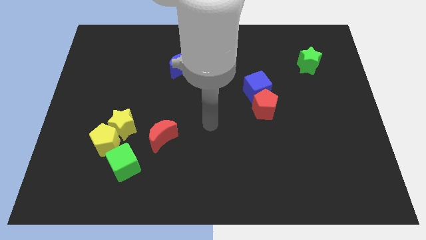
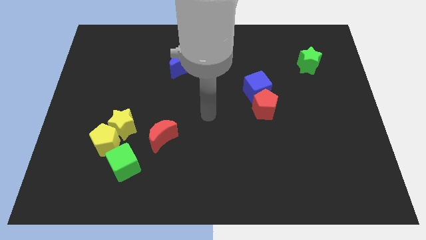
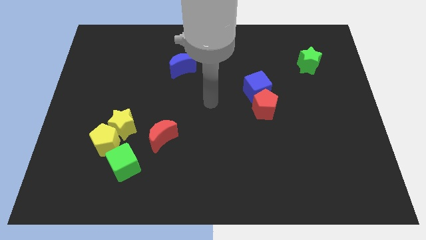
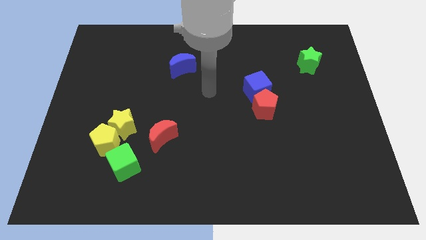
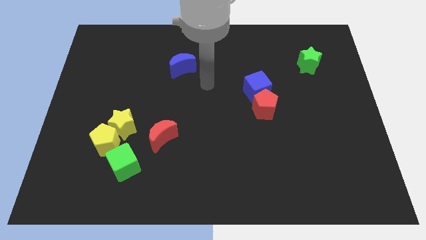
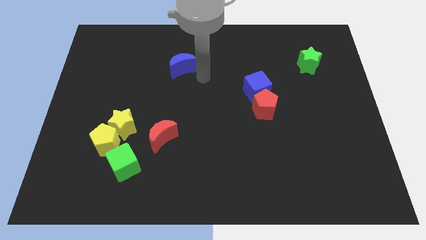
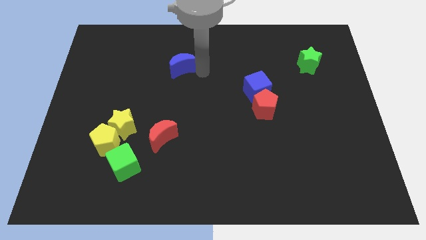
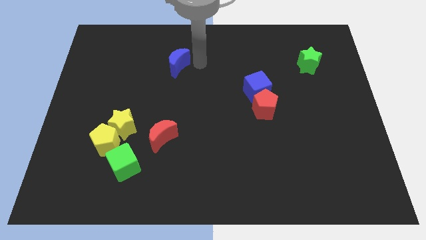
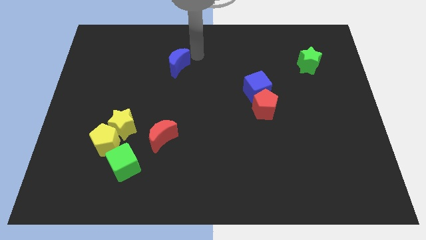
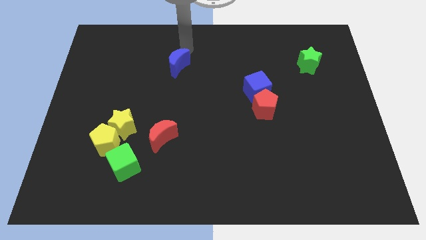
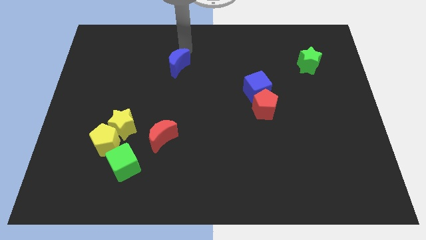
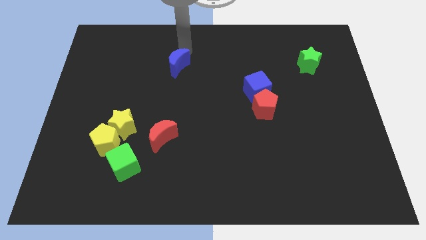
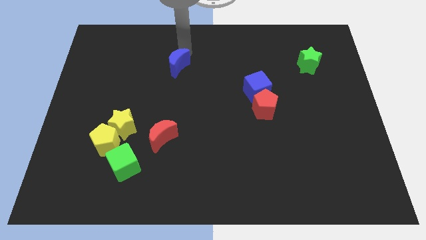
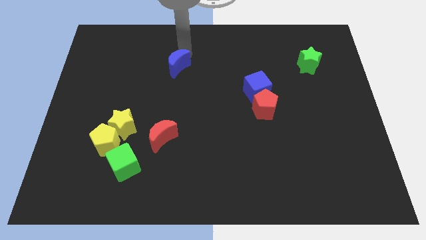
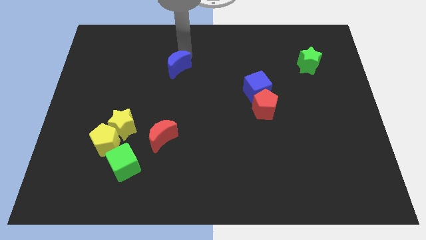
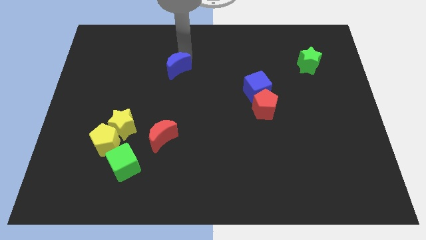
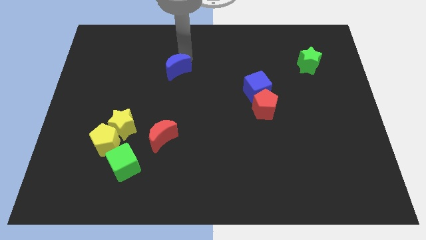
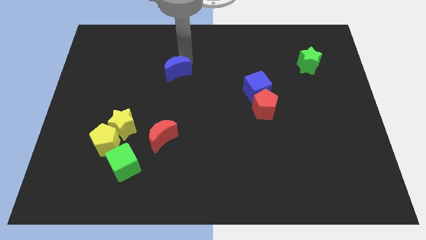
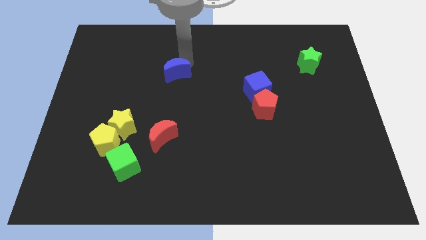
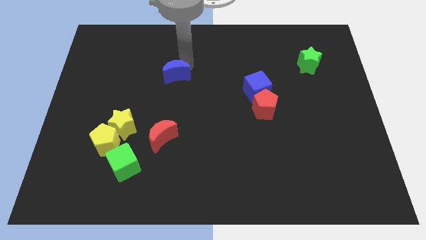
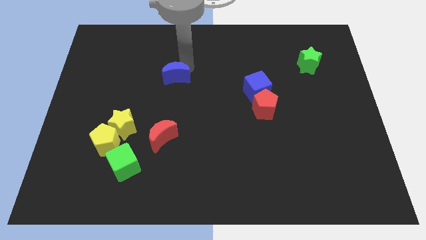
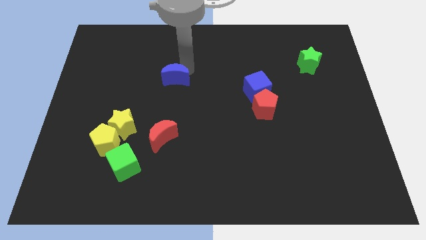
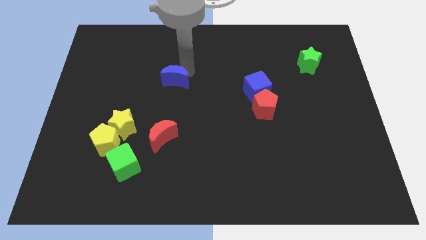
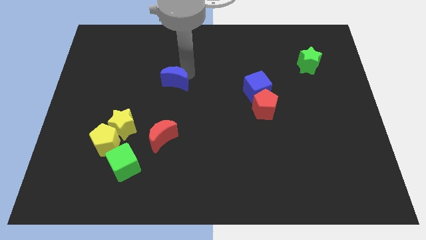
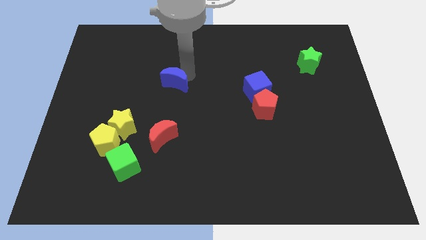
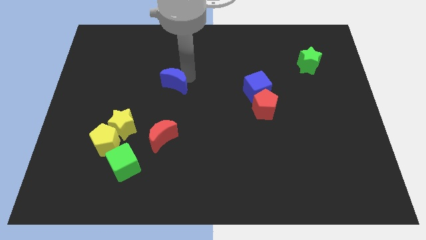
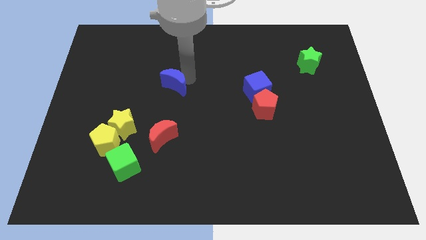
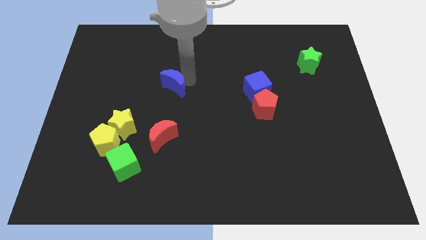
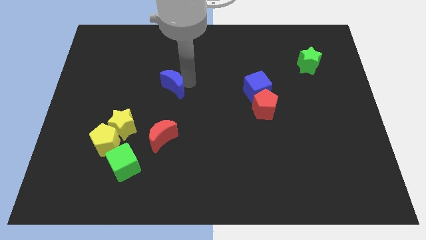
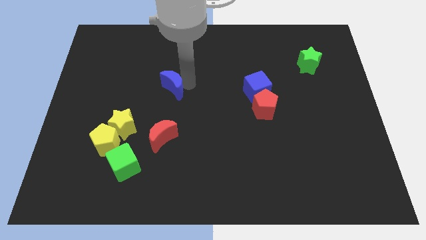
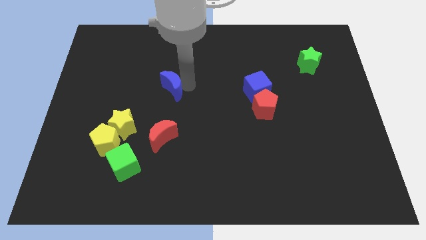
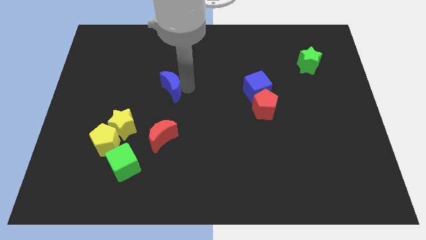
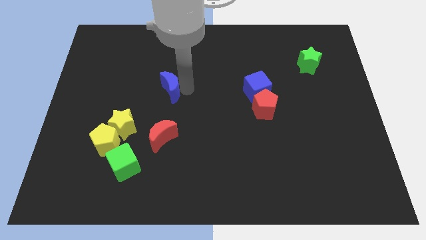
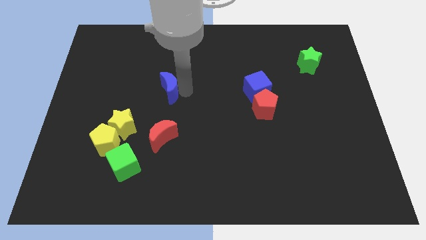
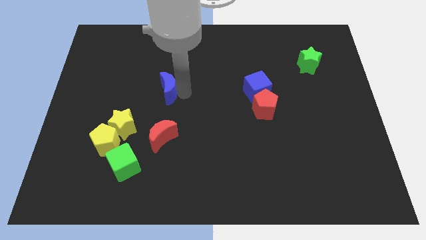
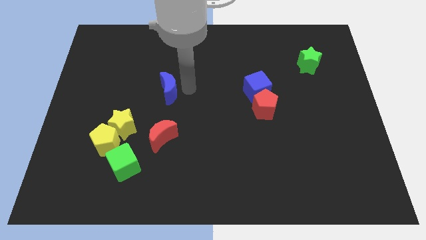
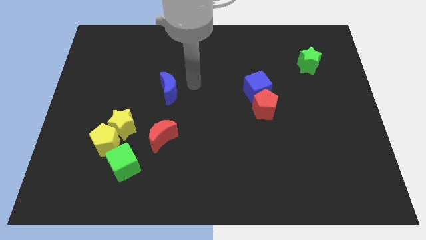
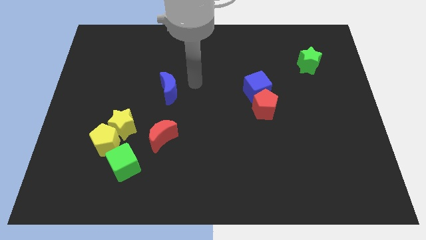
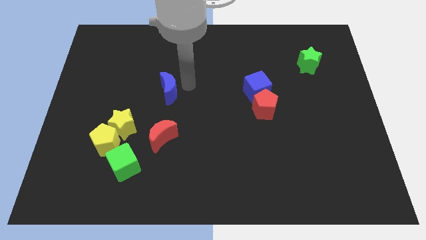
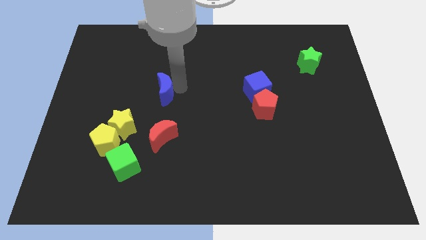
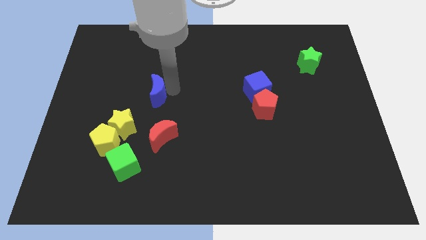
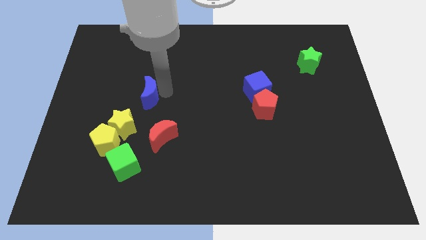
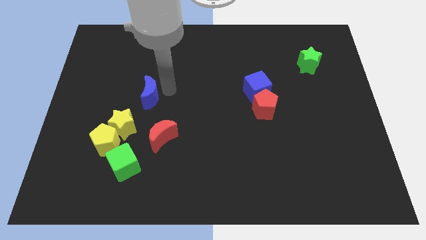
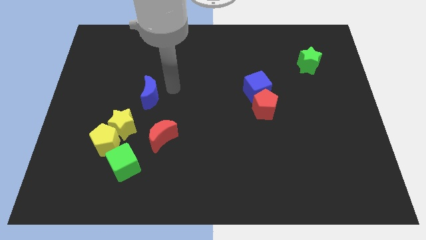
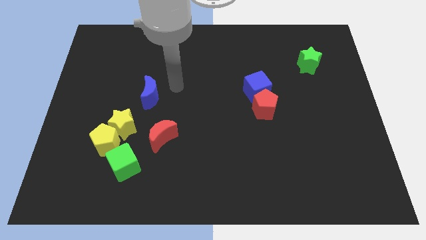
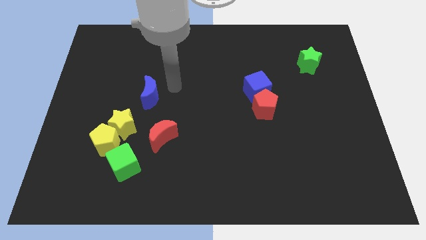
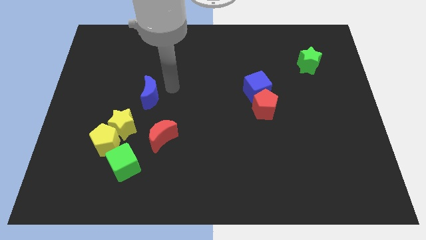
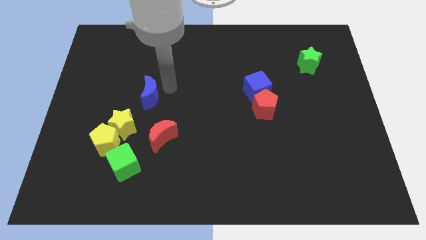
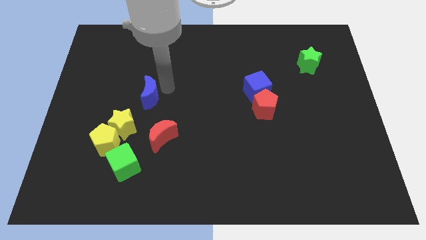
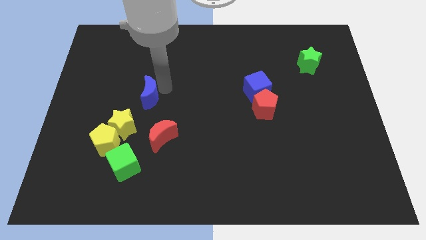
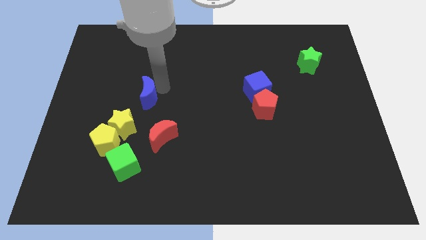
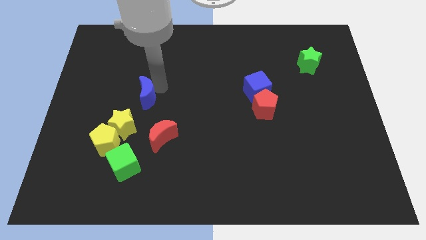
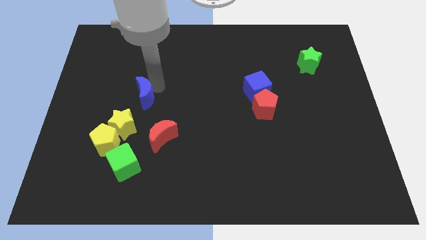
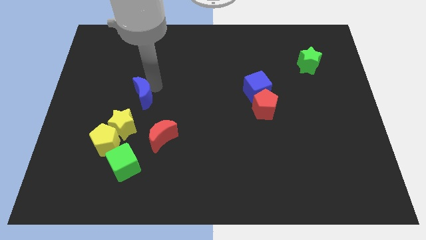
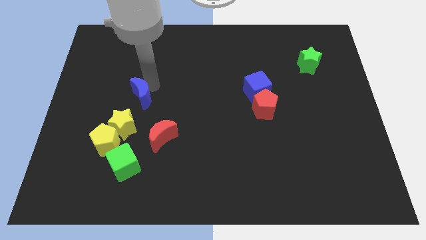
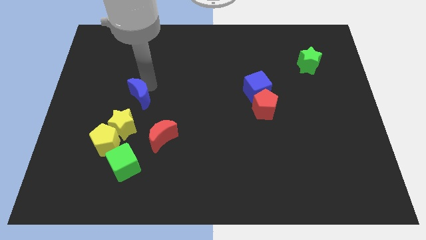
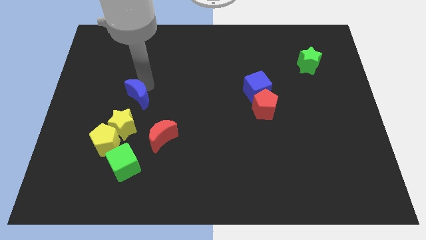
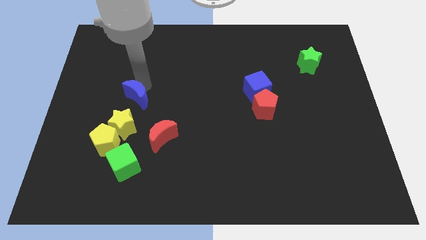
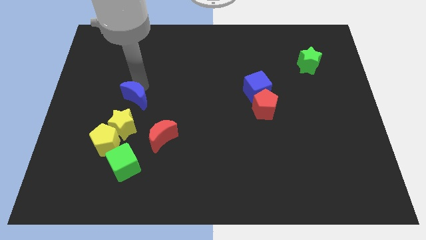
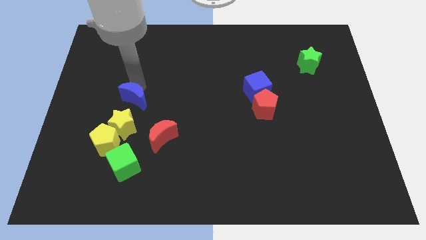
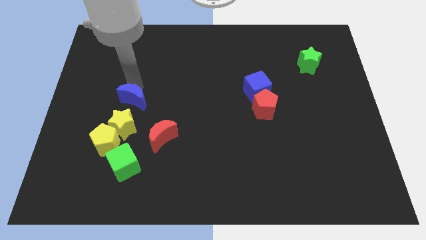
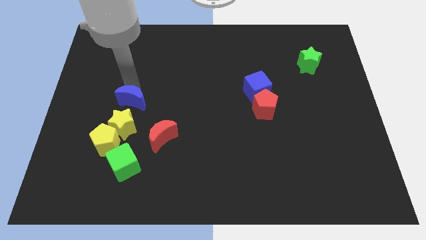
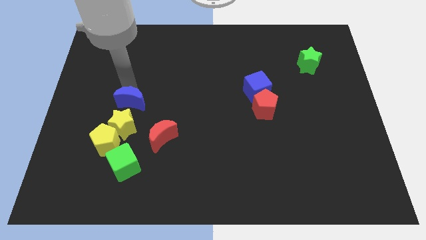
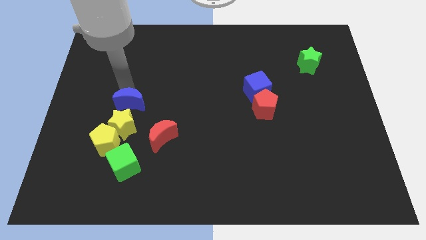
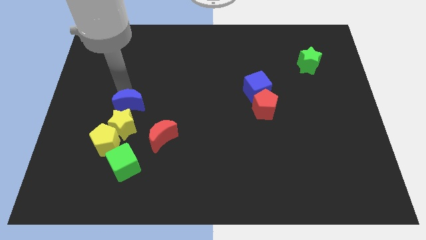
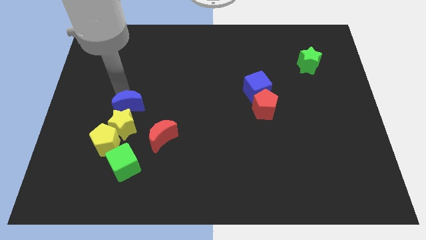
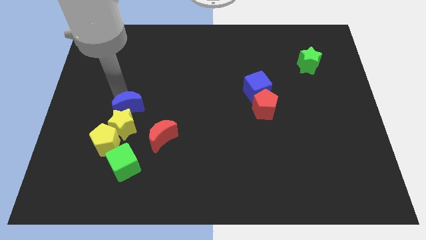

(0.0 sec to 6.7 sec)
put the blue moon to the top right of the yellow pentagon

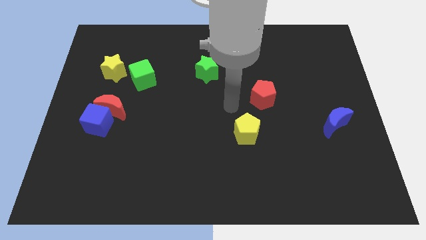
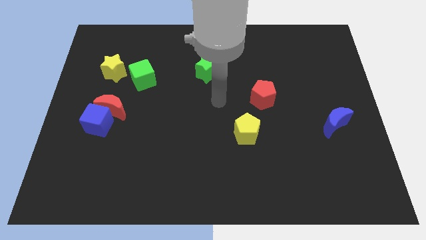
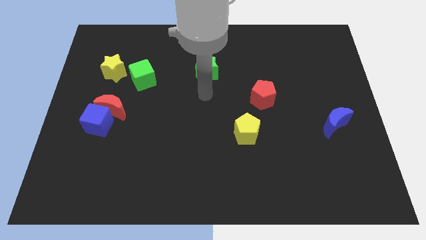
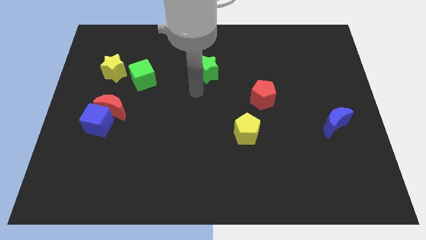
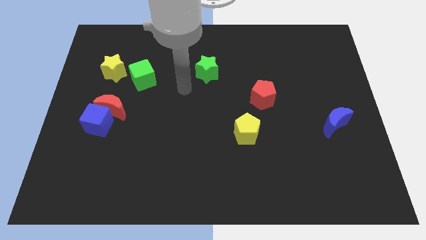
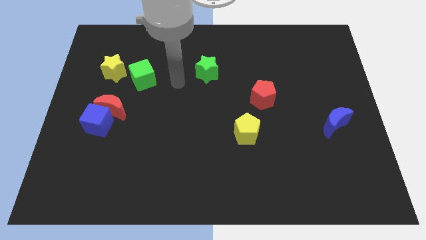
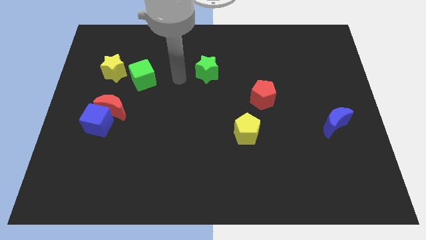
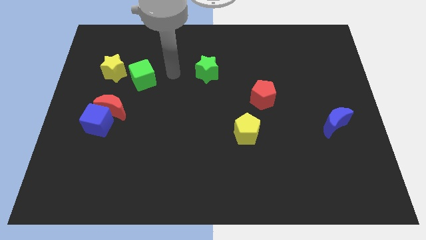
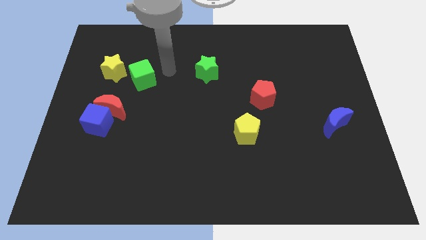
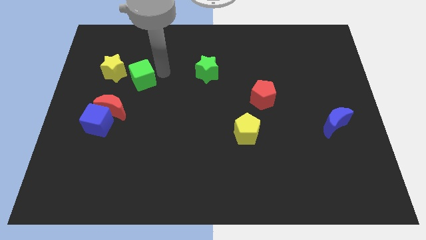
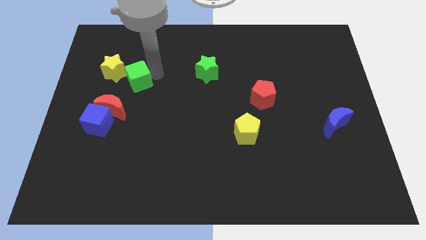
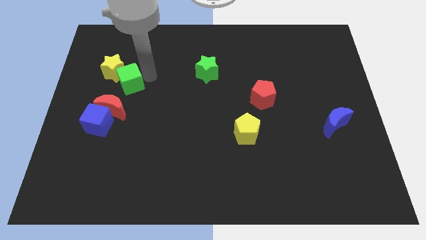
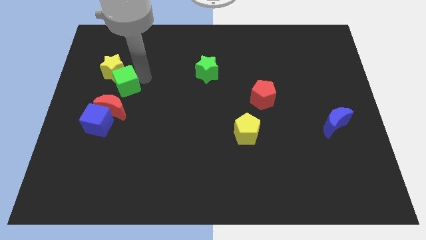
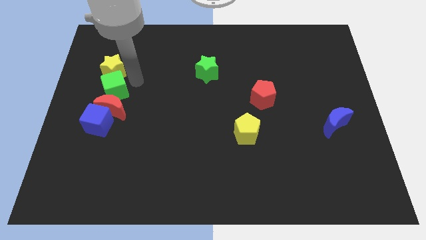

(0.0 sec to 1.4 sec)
push the green cube to the top left side of the red moon

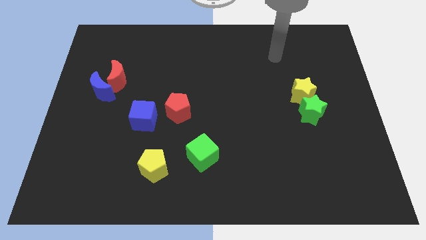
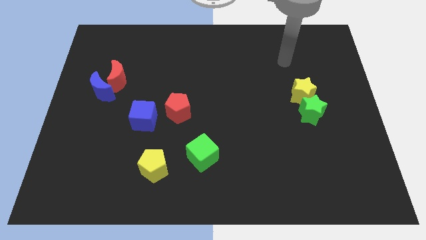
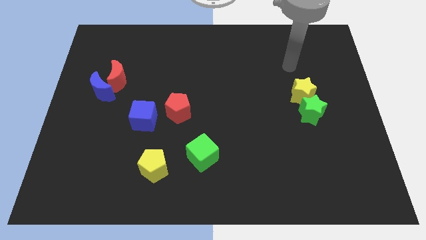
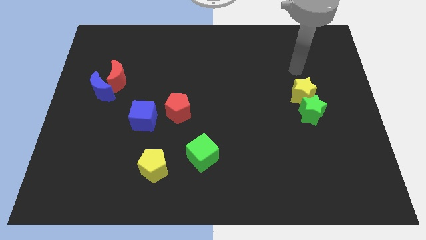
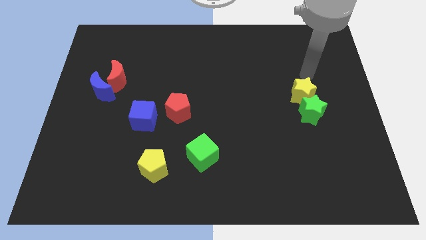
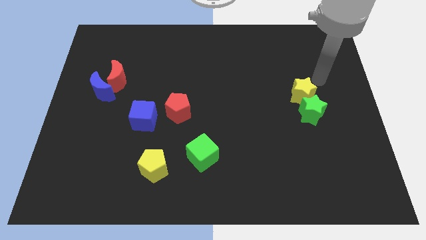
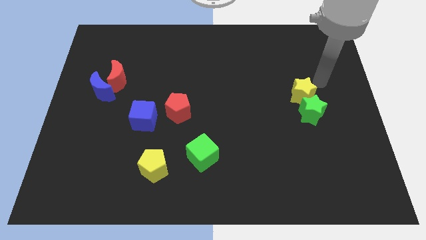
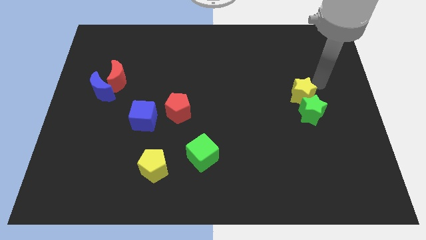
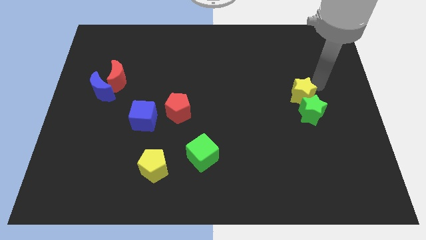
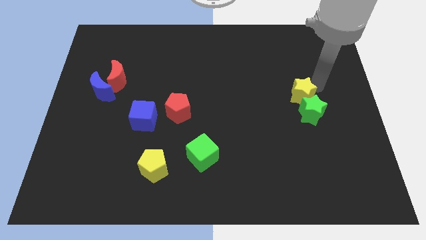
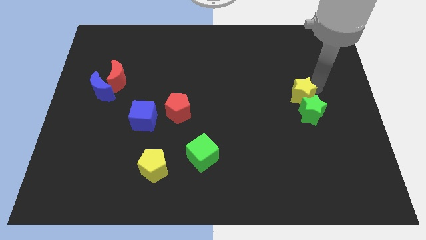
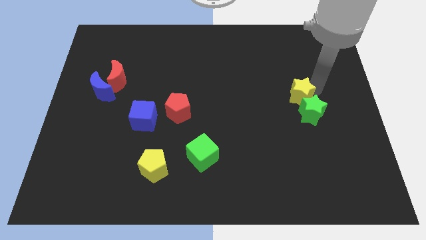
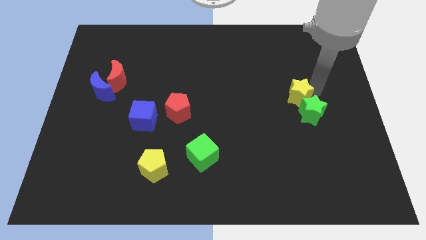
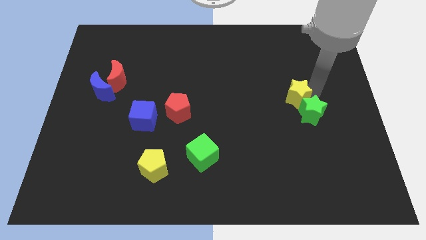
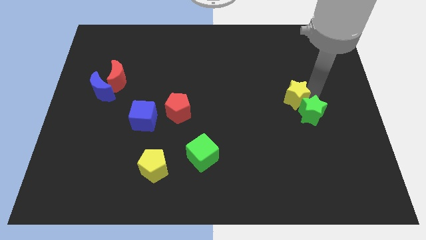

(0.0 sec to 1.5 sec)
put the yellow star to the left side of the green star
